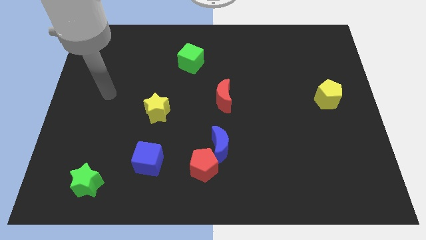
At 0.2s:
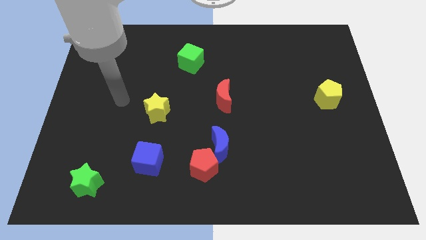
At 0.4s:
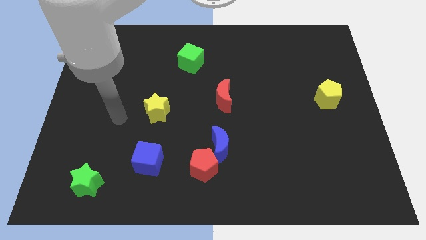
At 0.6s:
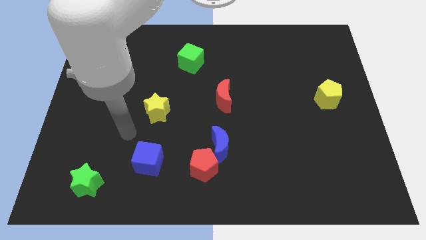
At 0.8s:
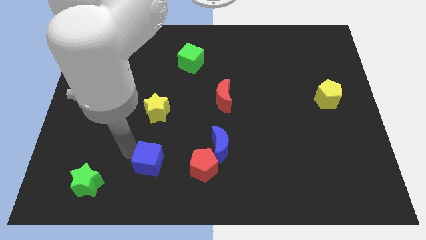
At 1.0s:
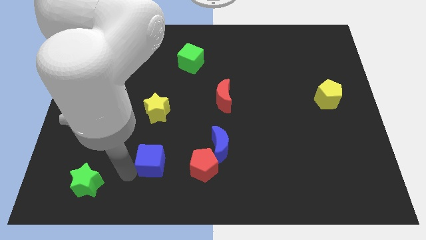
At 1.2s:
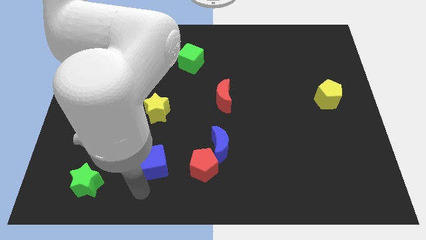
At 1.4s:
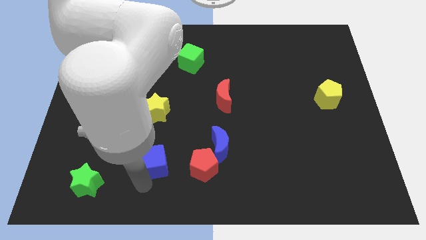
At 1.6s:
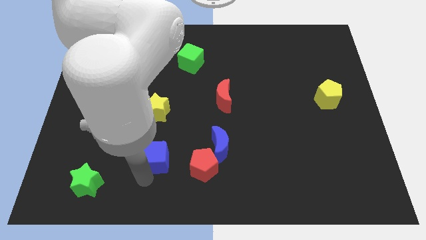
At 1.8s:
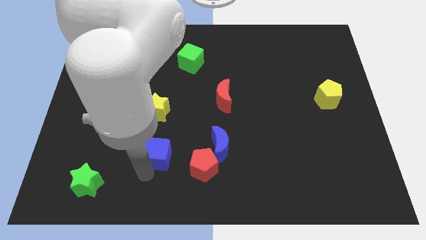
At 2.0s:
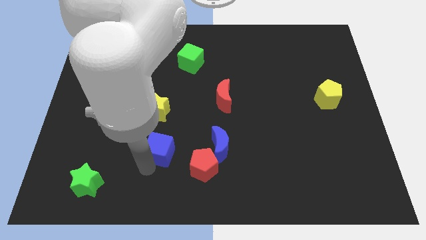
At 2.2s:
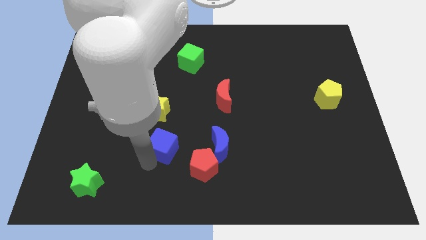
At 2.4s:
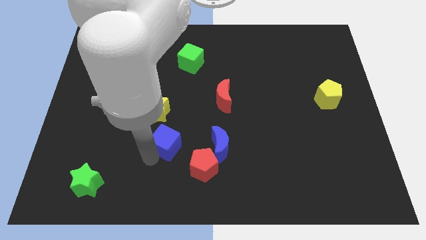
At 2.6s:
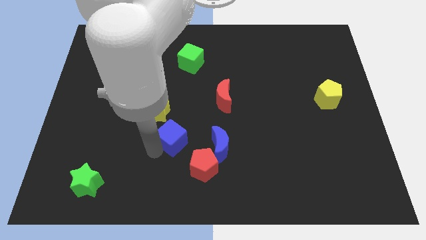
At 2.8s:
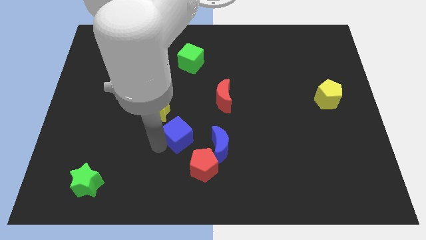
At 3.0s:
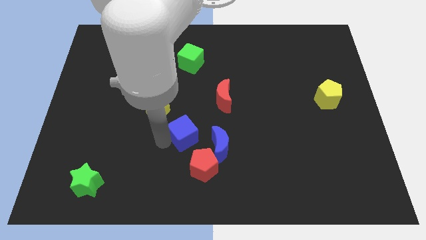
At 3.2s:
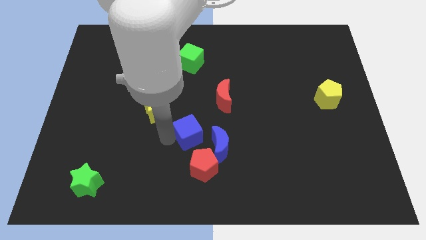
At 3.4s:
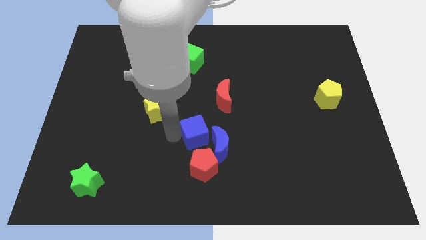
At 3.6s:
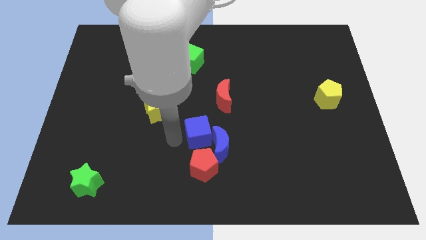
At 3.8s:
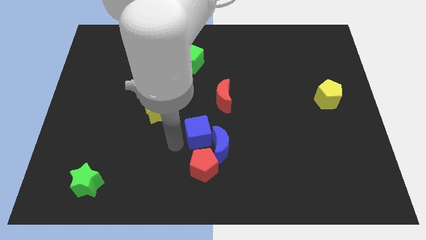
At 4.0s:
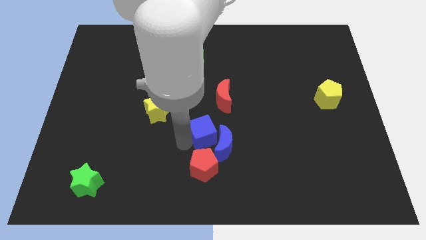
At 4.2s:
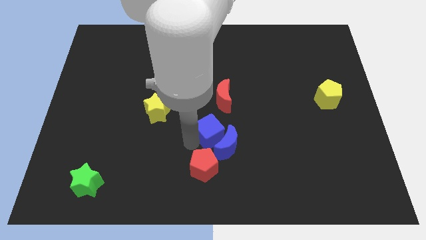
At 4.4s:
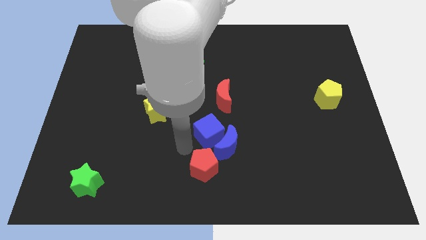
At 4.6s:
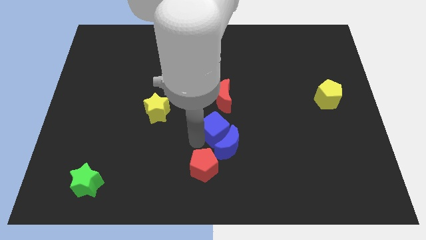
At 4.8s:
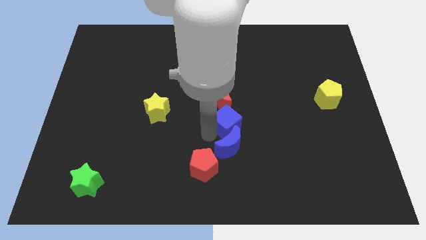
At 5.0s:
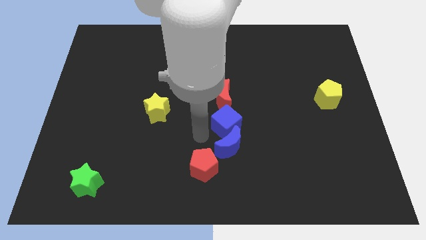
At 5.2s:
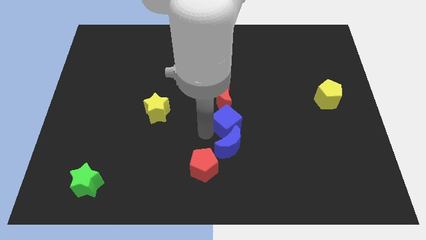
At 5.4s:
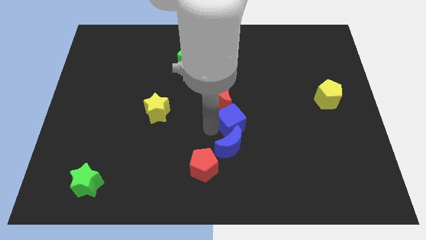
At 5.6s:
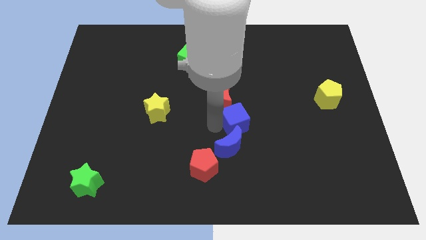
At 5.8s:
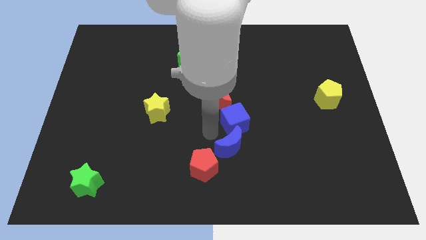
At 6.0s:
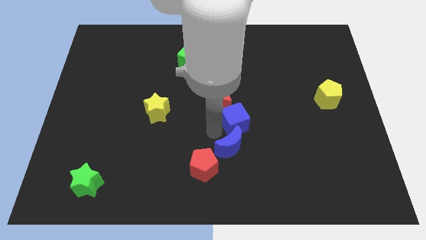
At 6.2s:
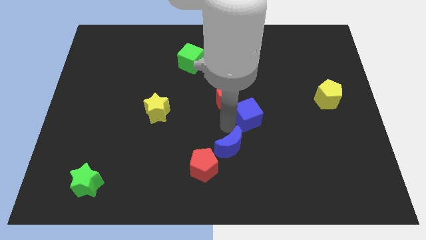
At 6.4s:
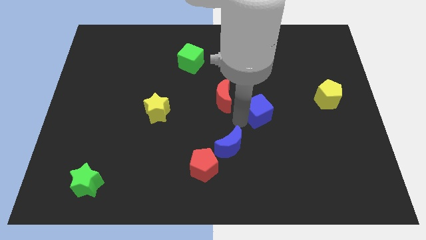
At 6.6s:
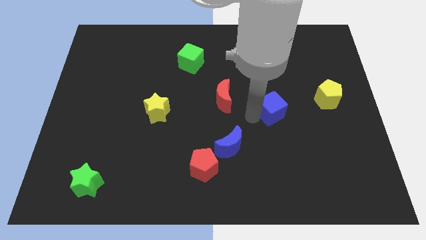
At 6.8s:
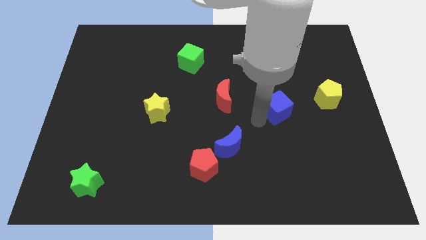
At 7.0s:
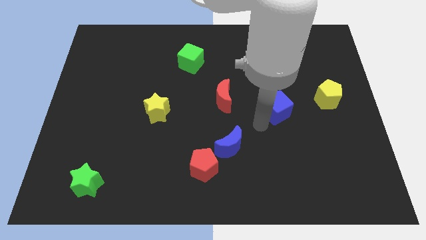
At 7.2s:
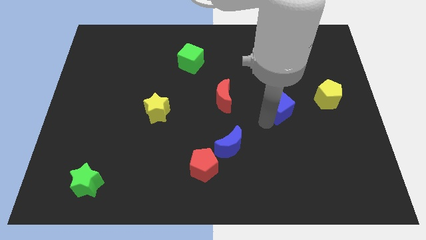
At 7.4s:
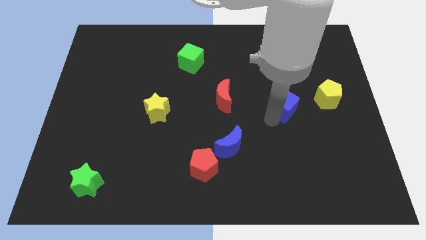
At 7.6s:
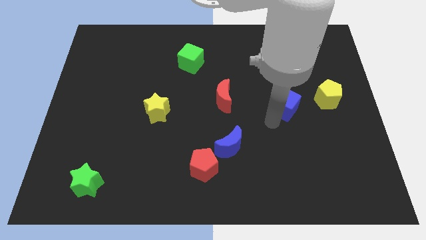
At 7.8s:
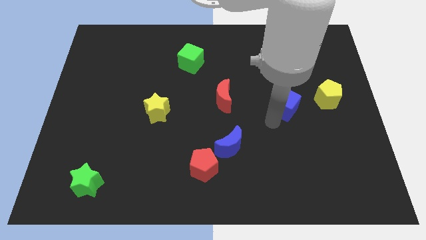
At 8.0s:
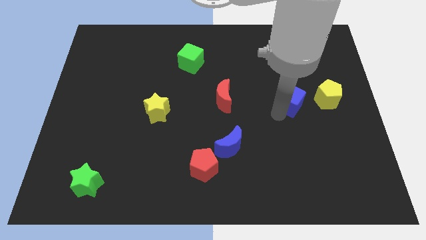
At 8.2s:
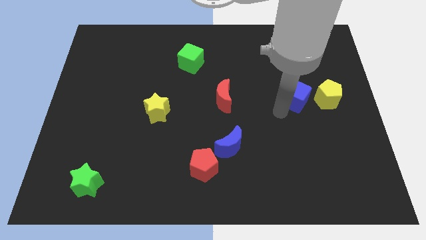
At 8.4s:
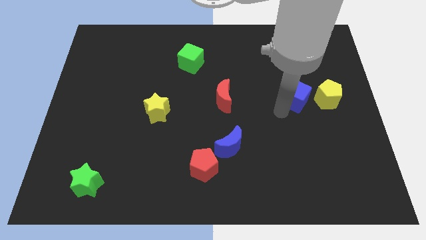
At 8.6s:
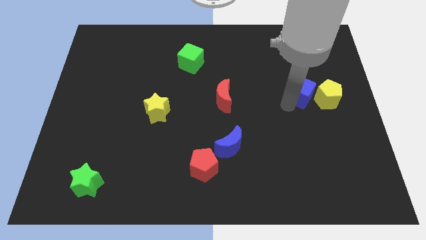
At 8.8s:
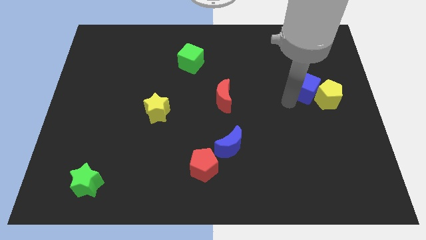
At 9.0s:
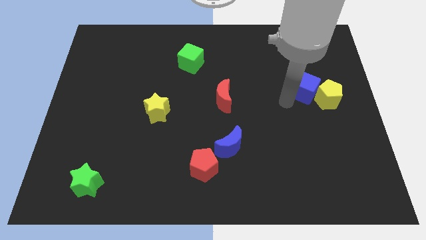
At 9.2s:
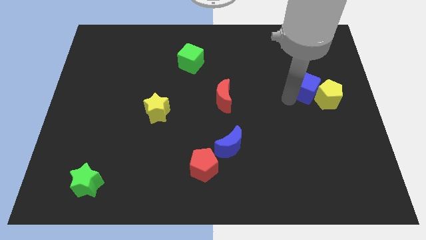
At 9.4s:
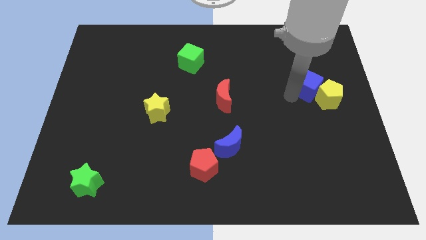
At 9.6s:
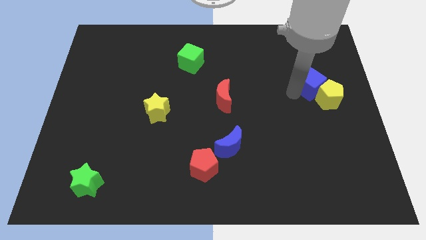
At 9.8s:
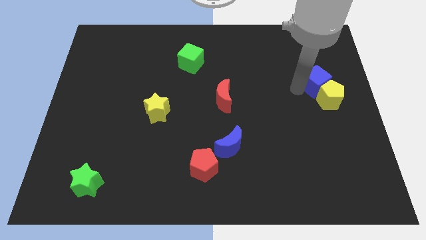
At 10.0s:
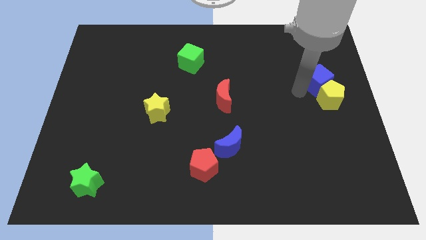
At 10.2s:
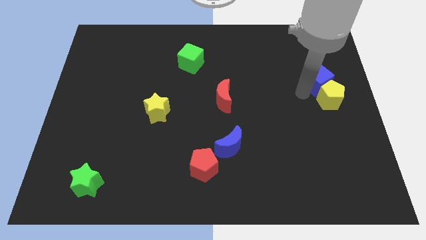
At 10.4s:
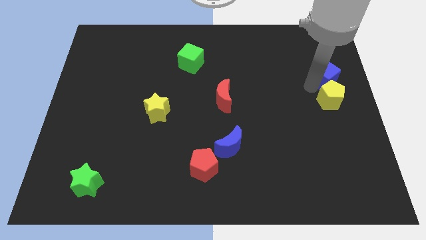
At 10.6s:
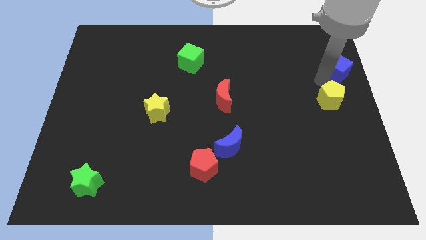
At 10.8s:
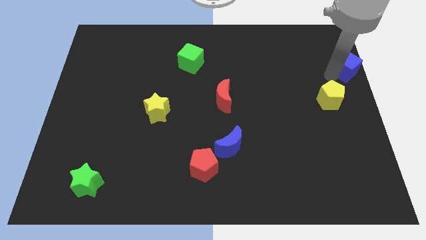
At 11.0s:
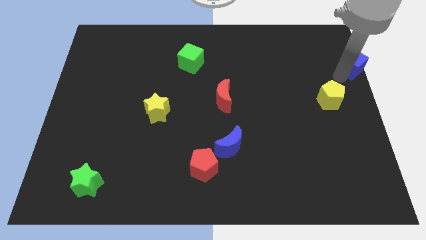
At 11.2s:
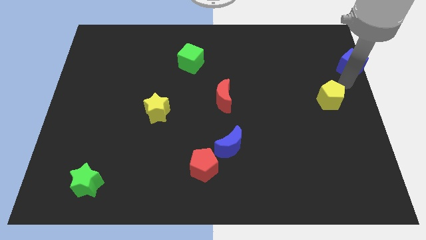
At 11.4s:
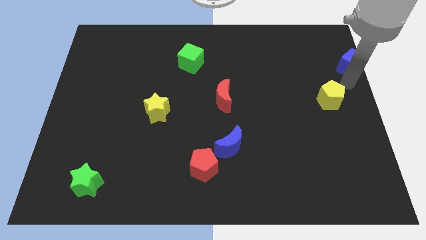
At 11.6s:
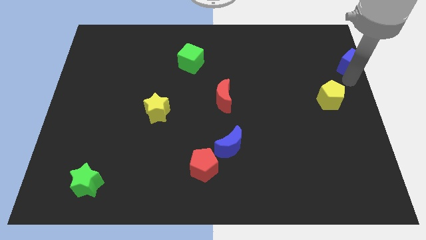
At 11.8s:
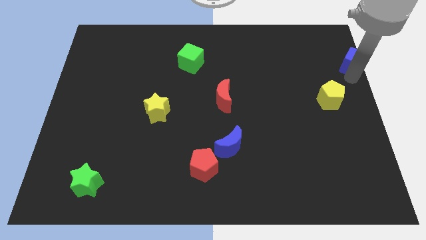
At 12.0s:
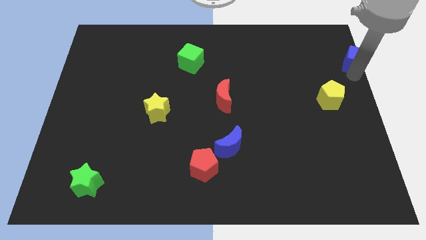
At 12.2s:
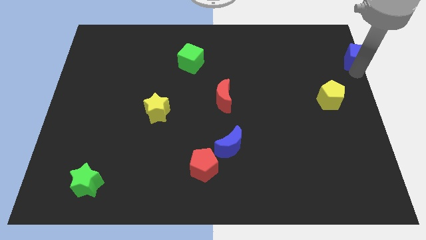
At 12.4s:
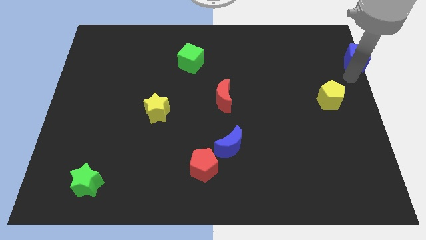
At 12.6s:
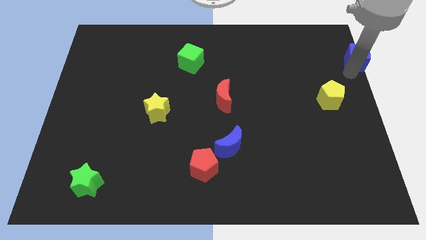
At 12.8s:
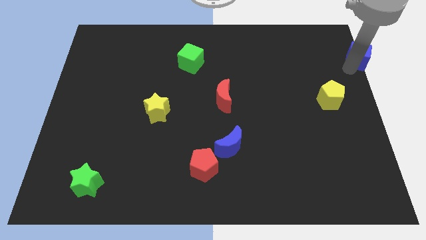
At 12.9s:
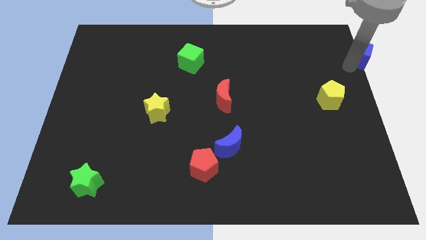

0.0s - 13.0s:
put the blue cube to the top right
